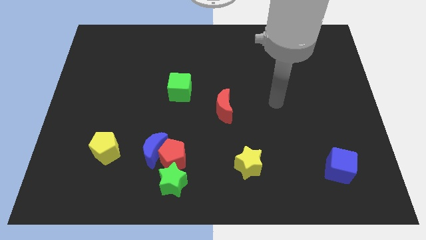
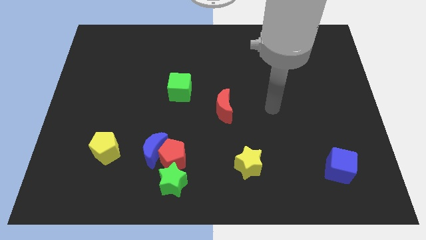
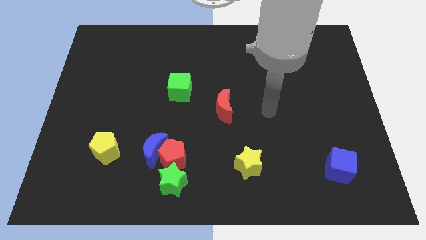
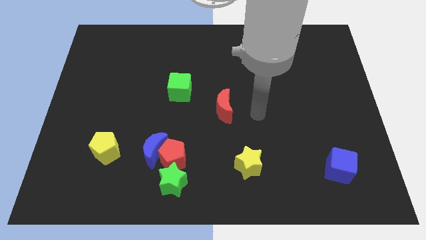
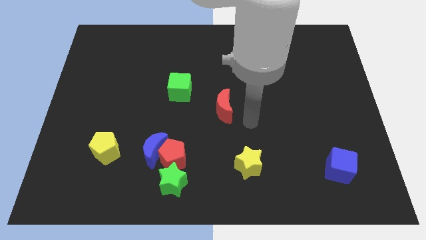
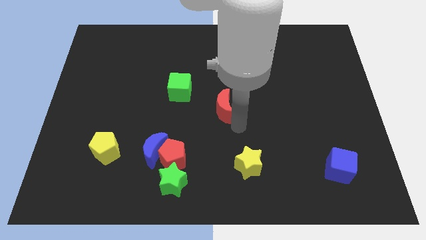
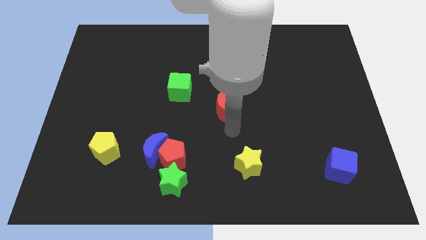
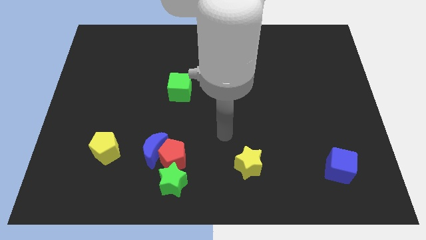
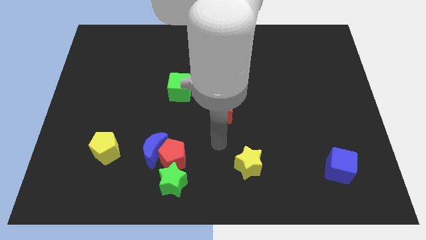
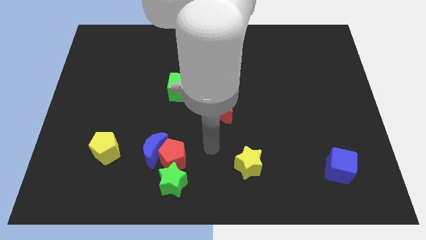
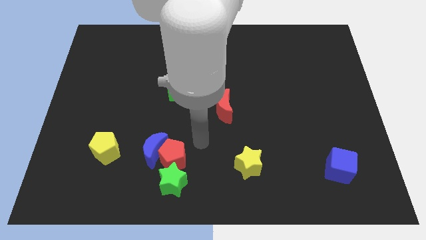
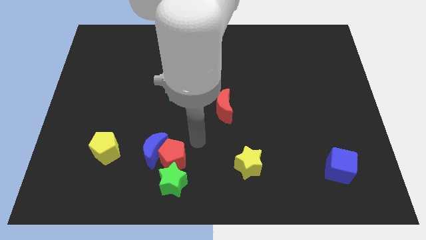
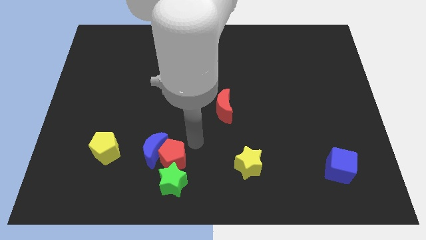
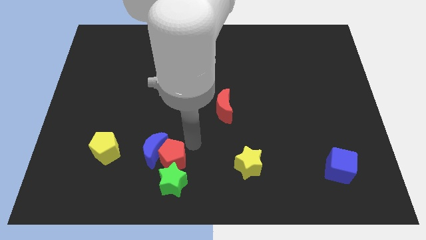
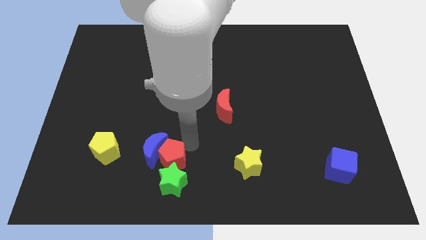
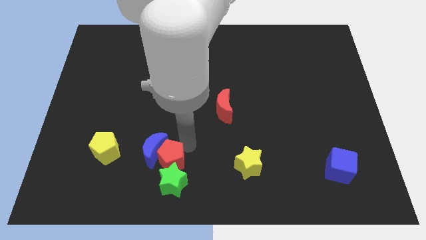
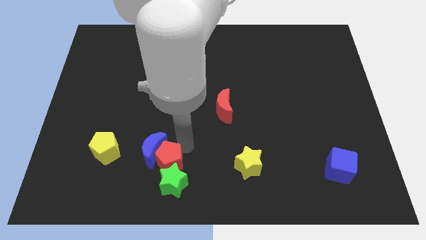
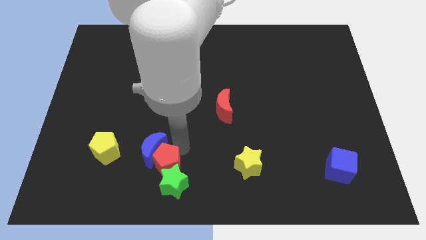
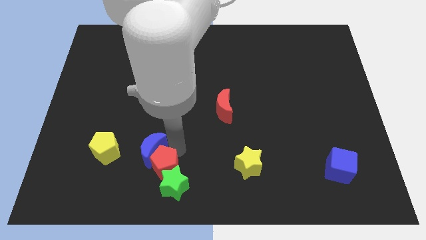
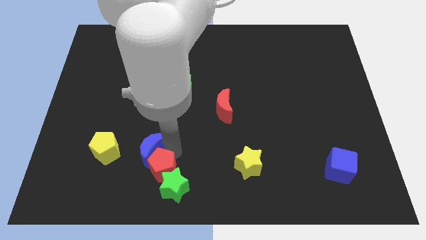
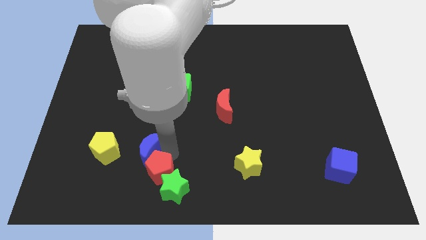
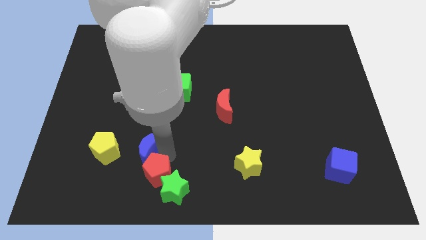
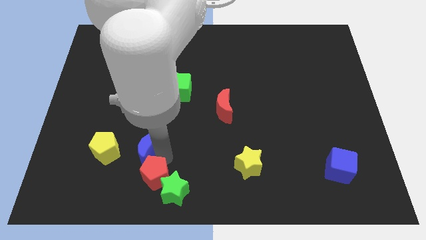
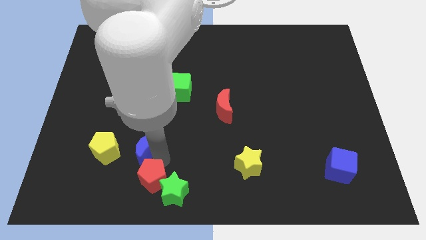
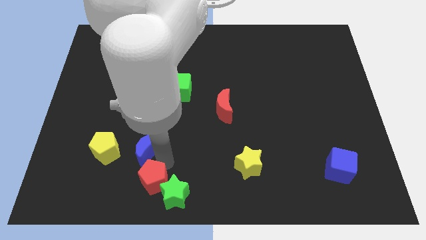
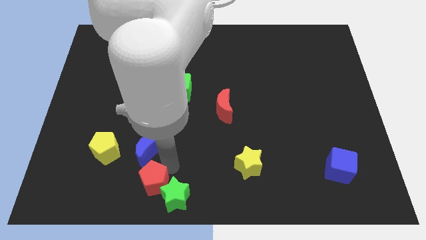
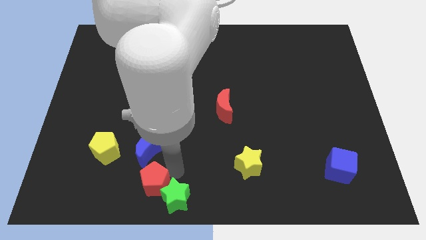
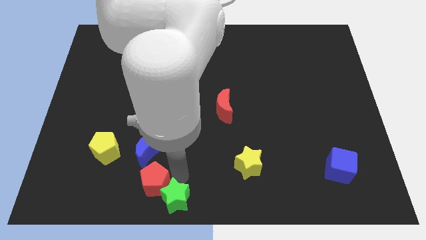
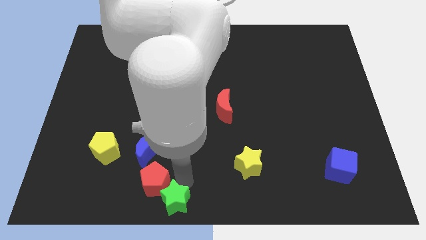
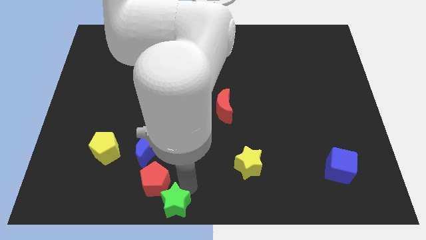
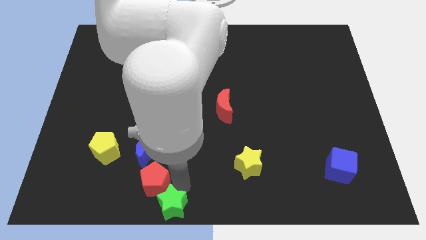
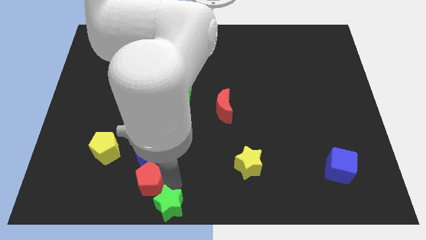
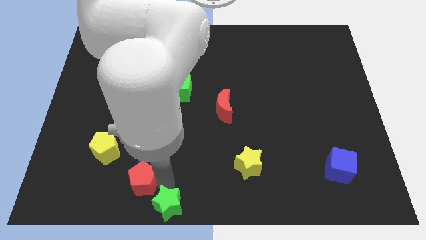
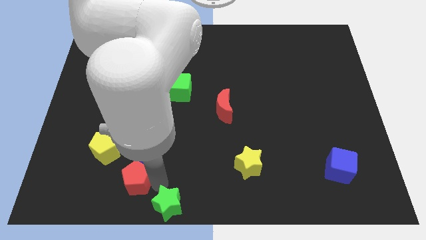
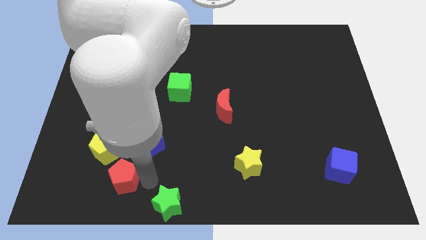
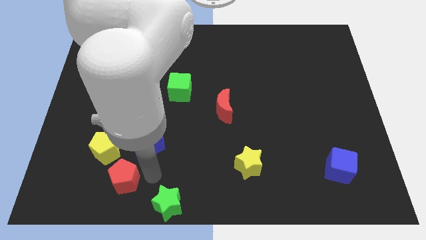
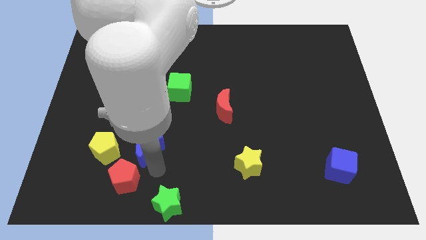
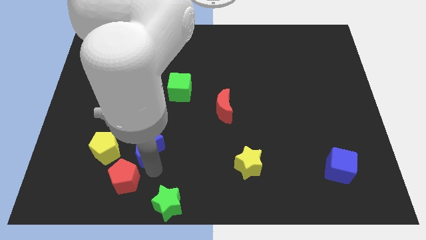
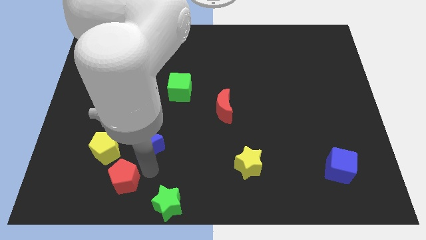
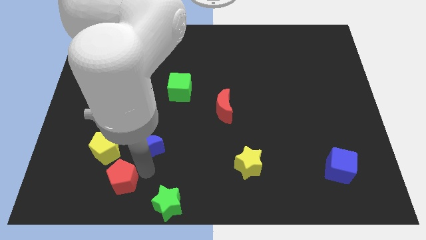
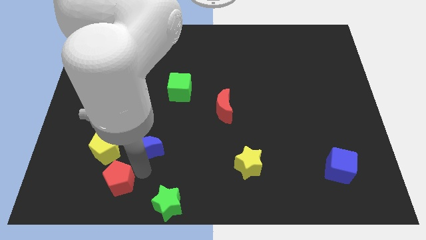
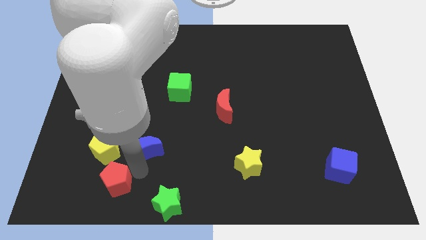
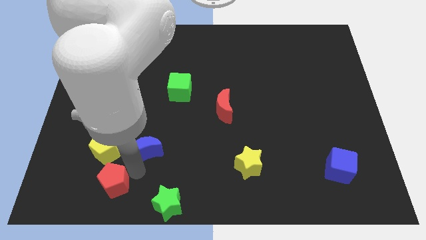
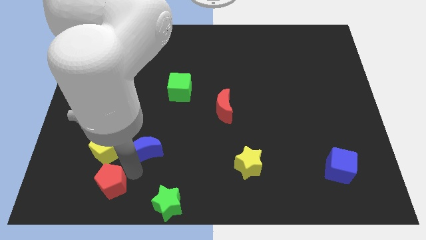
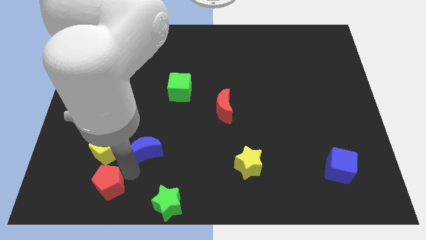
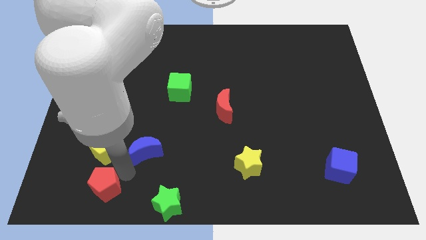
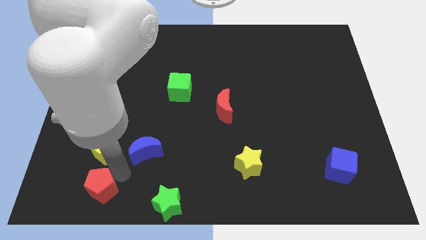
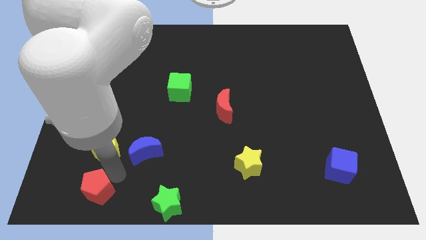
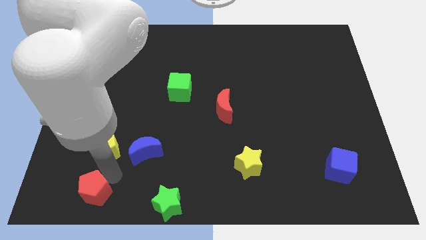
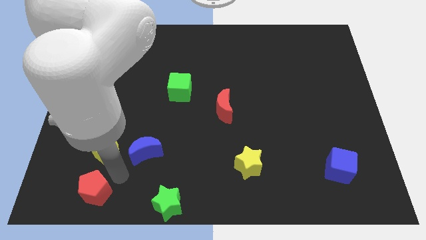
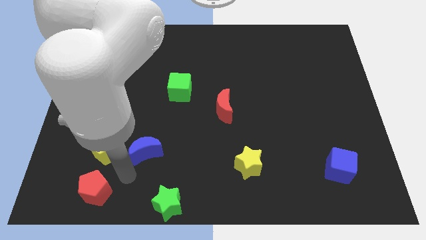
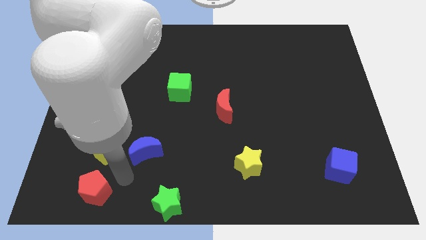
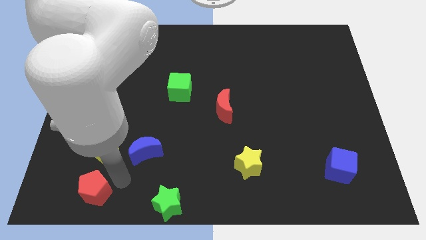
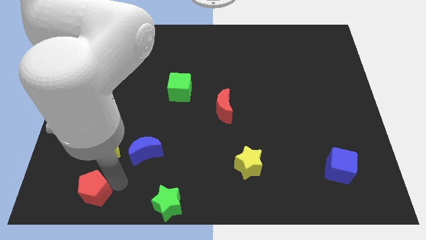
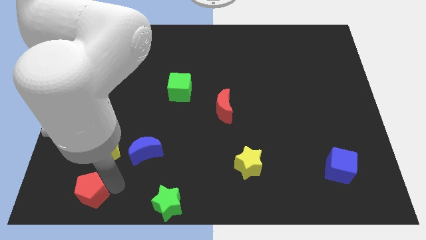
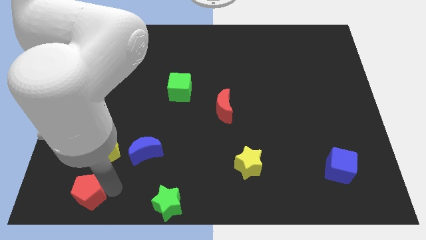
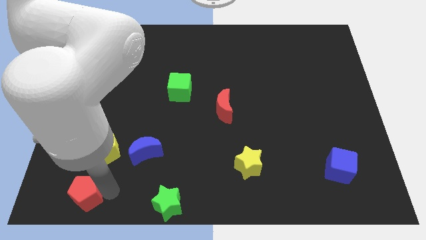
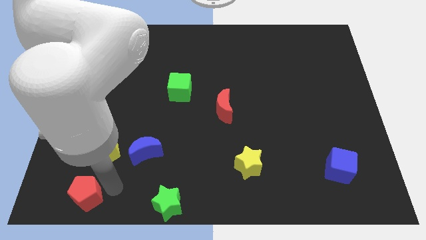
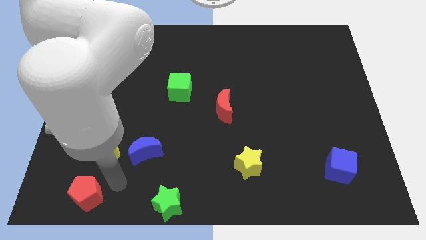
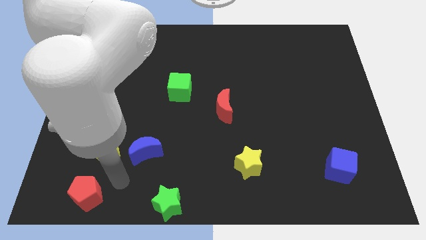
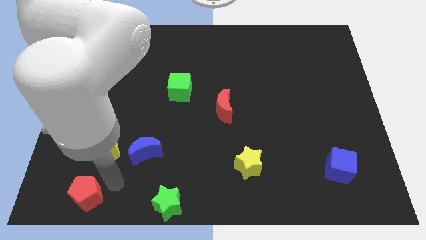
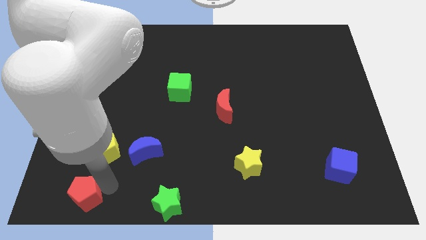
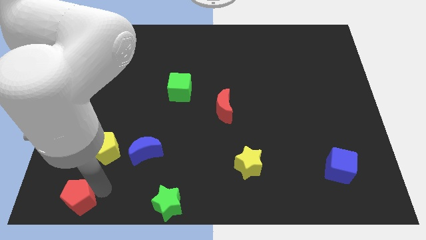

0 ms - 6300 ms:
push the red pentagon to the bottom left
